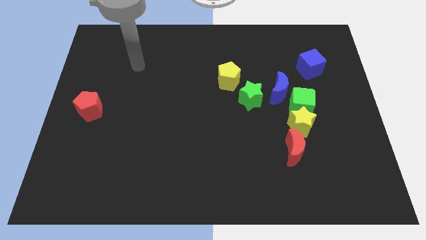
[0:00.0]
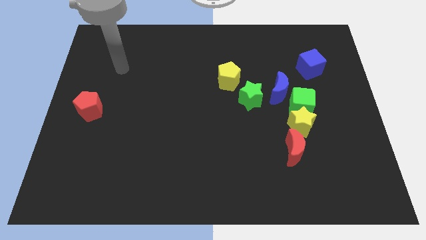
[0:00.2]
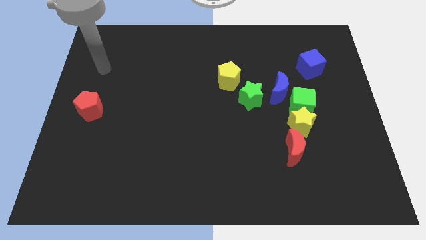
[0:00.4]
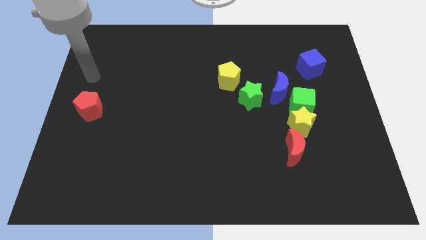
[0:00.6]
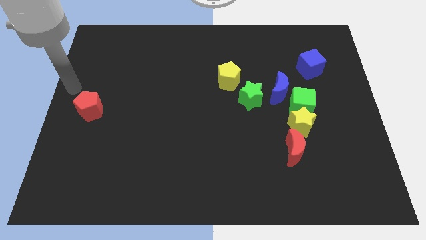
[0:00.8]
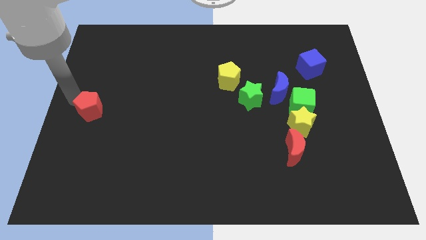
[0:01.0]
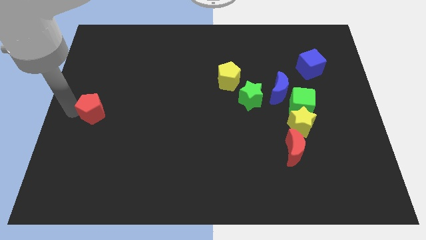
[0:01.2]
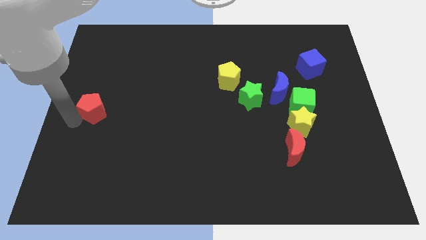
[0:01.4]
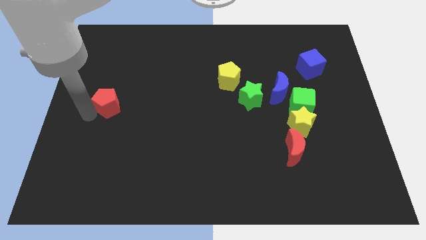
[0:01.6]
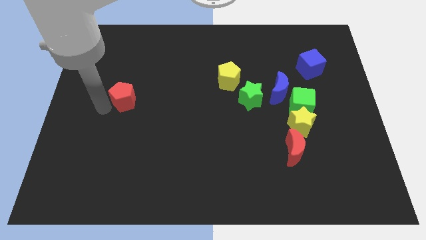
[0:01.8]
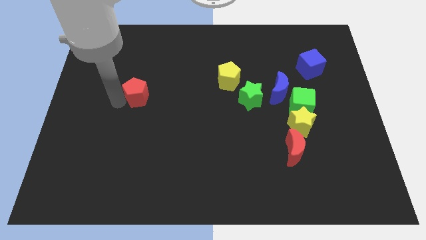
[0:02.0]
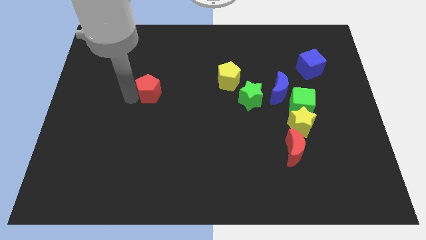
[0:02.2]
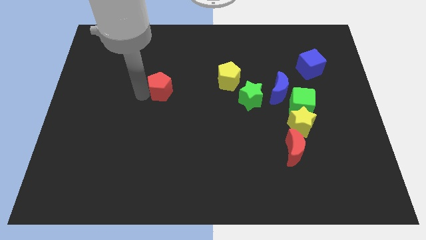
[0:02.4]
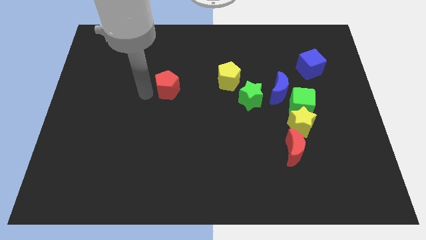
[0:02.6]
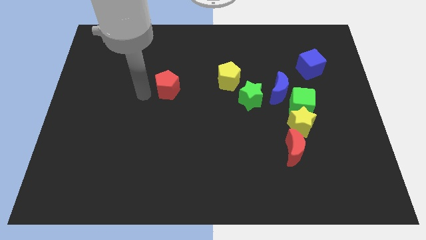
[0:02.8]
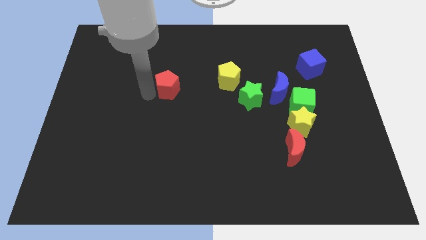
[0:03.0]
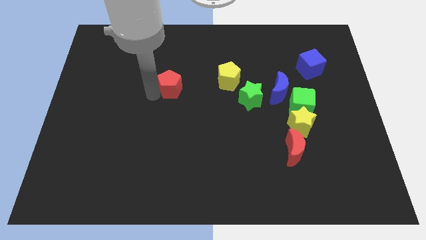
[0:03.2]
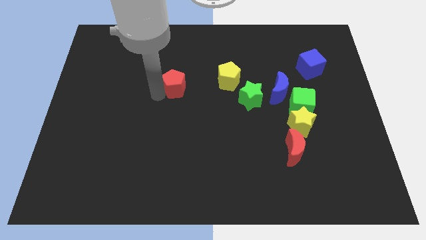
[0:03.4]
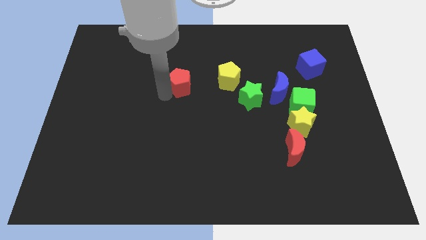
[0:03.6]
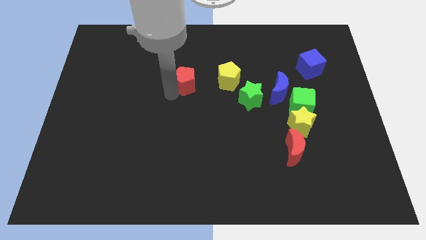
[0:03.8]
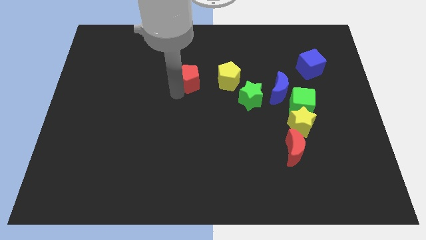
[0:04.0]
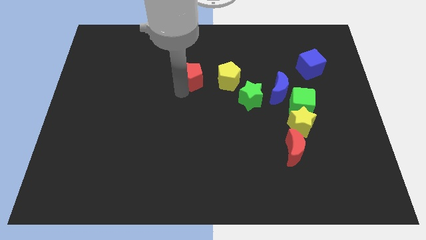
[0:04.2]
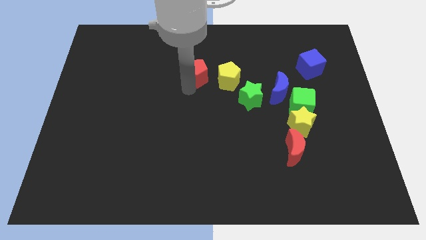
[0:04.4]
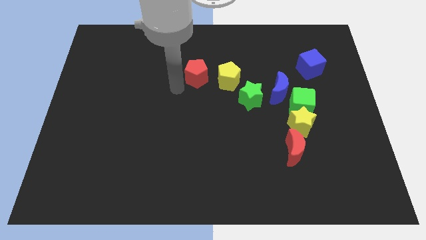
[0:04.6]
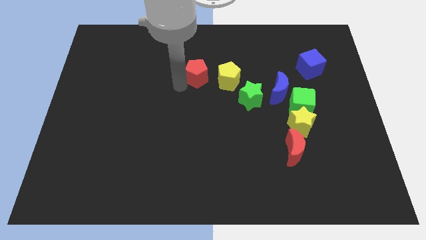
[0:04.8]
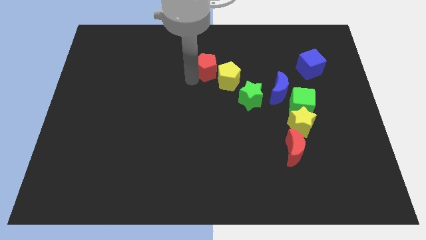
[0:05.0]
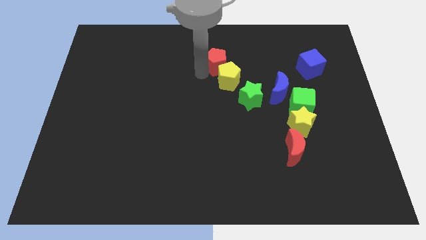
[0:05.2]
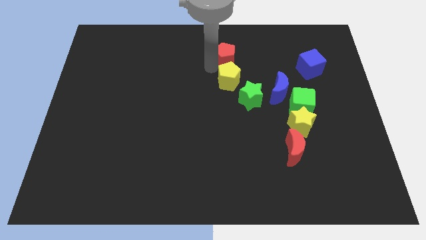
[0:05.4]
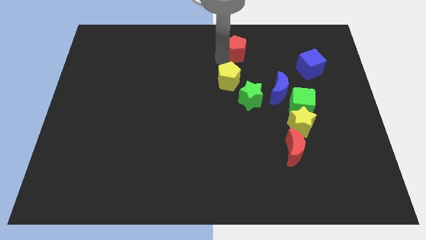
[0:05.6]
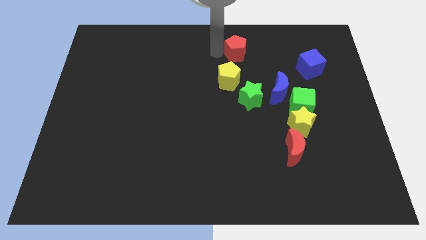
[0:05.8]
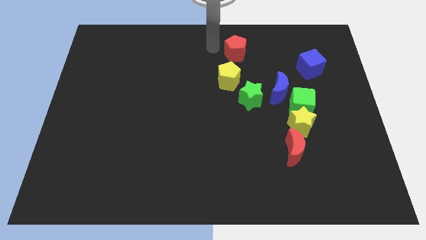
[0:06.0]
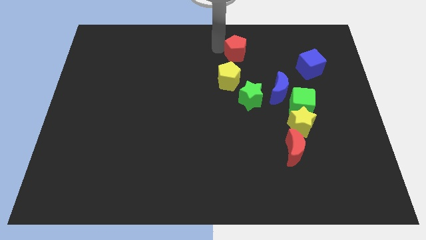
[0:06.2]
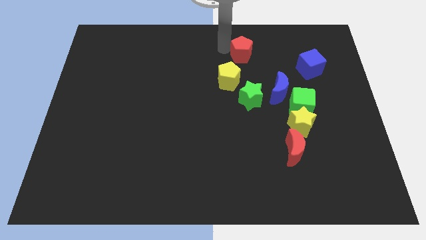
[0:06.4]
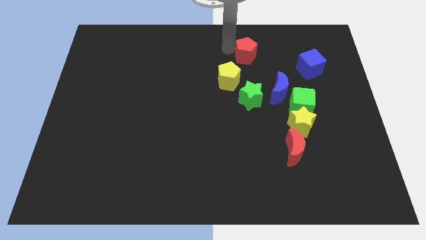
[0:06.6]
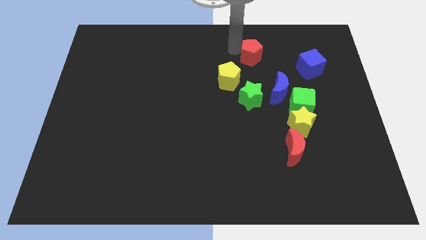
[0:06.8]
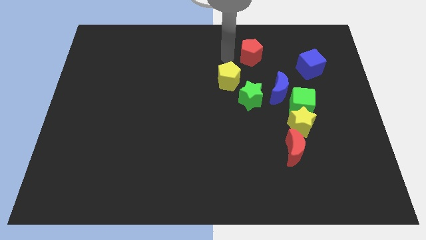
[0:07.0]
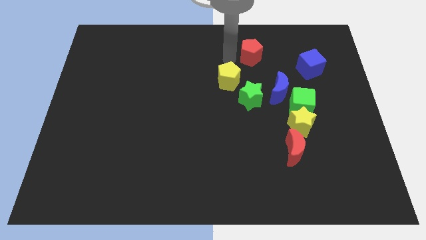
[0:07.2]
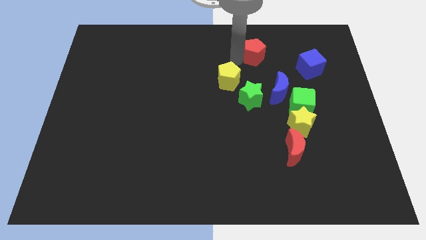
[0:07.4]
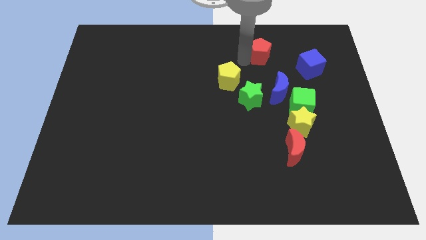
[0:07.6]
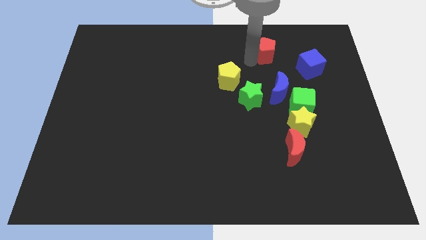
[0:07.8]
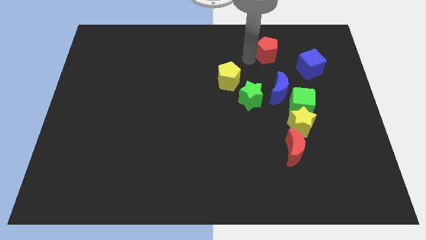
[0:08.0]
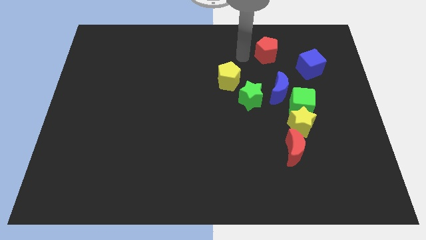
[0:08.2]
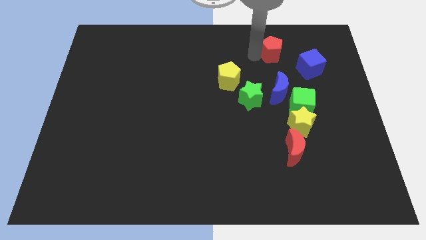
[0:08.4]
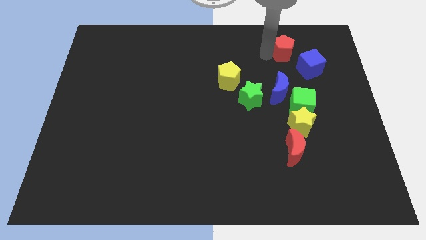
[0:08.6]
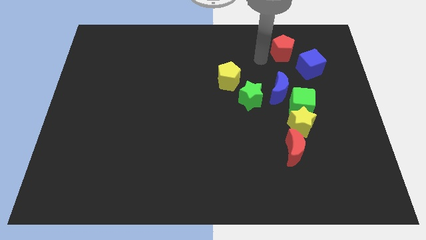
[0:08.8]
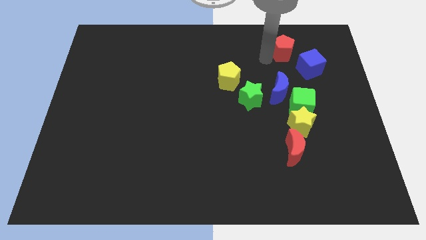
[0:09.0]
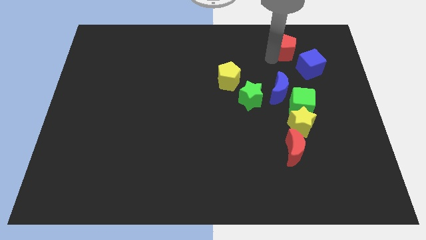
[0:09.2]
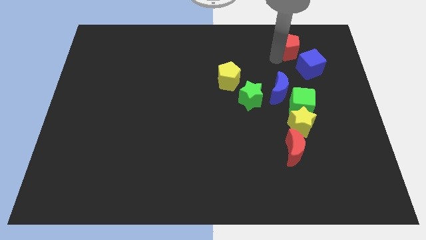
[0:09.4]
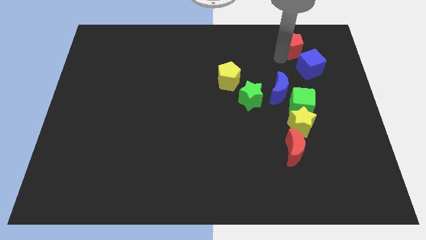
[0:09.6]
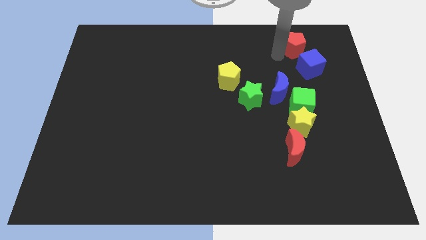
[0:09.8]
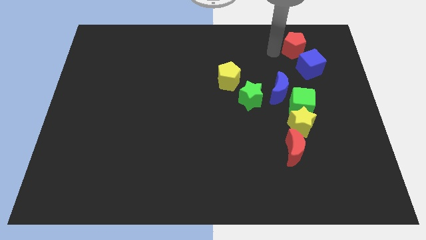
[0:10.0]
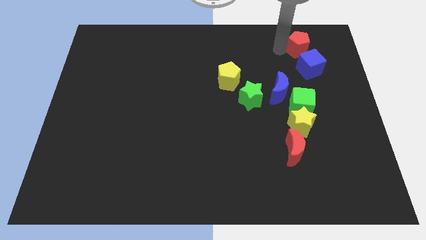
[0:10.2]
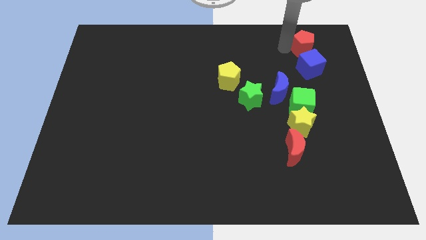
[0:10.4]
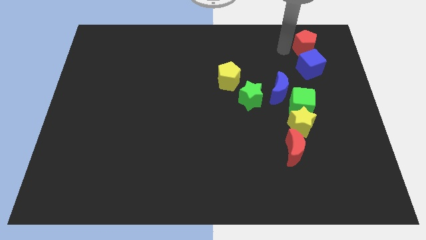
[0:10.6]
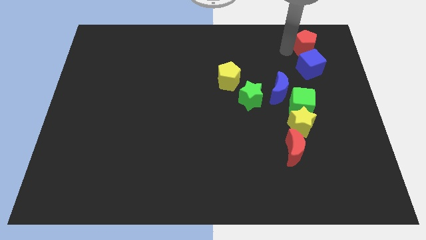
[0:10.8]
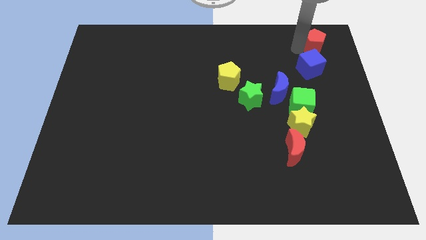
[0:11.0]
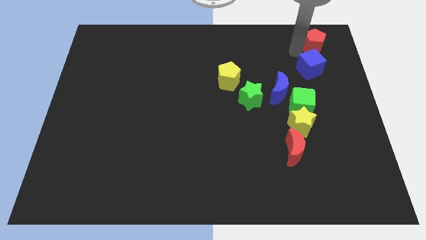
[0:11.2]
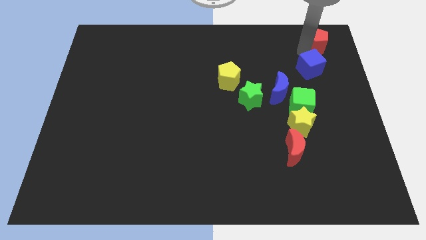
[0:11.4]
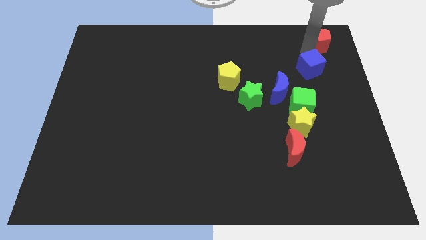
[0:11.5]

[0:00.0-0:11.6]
put the red pentagon to the upper right corner

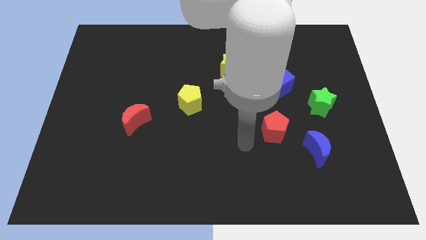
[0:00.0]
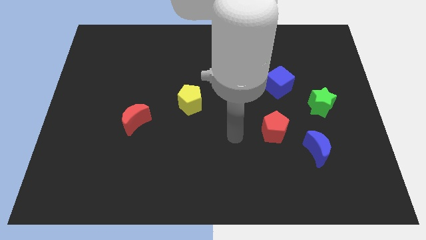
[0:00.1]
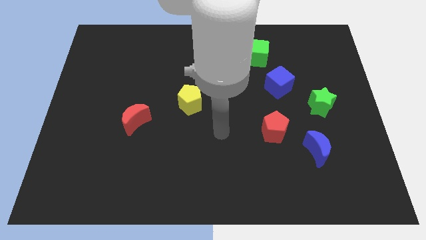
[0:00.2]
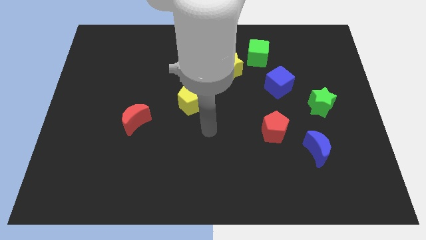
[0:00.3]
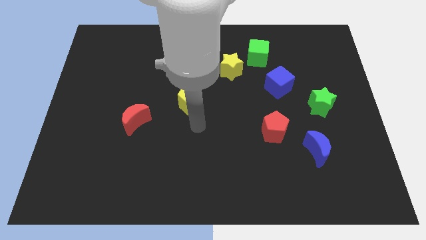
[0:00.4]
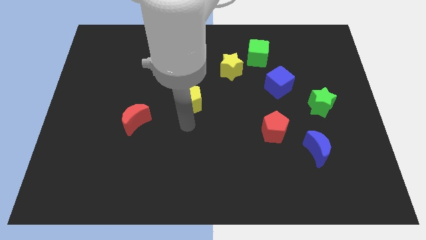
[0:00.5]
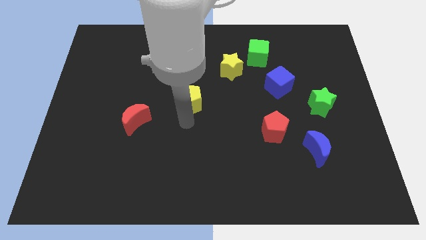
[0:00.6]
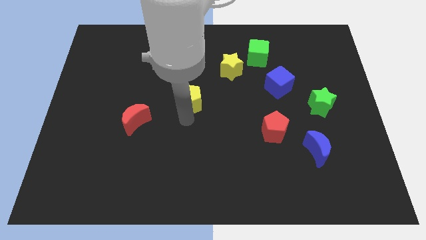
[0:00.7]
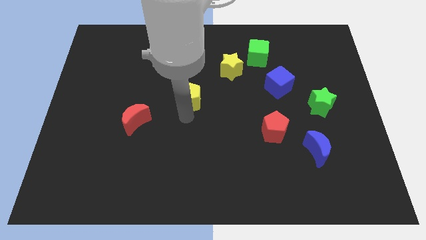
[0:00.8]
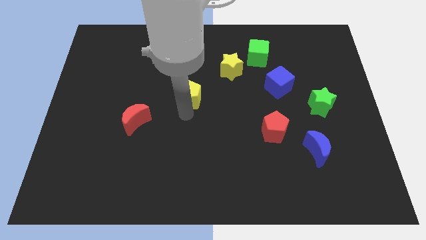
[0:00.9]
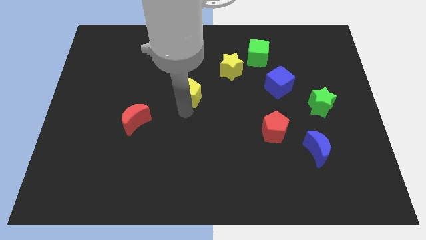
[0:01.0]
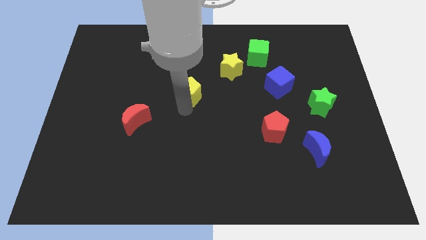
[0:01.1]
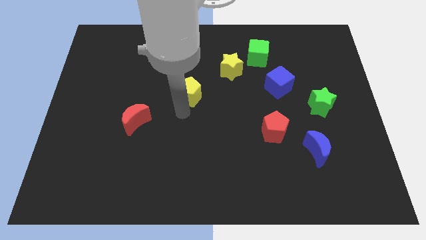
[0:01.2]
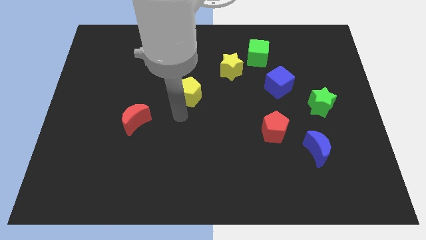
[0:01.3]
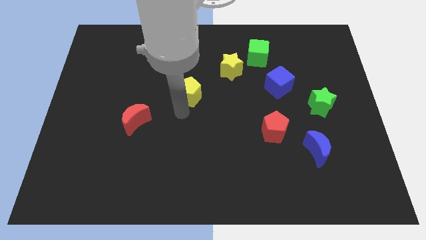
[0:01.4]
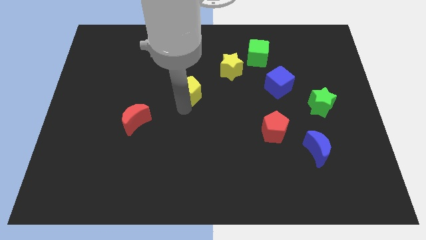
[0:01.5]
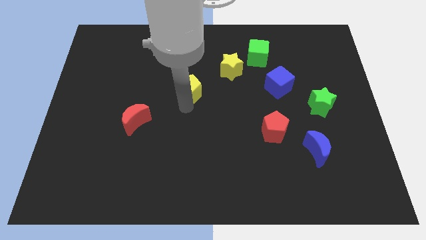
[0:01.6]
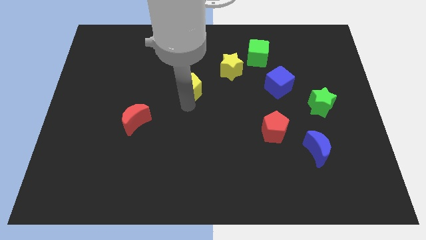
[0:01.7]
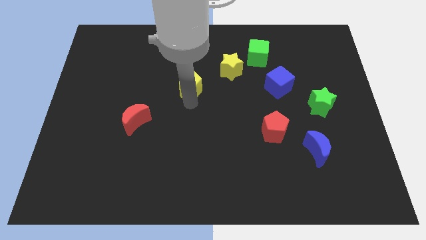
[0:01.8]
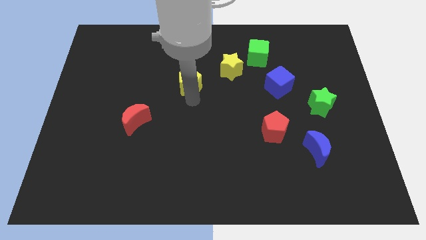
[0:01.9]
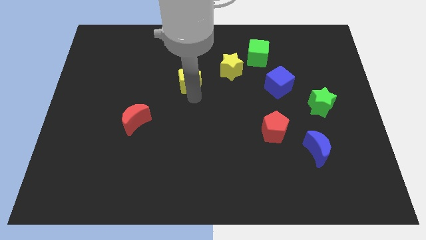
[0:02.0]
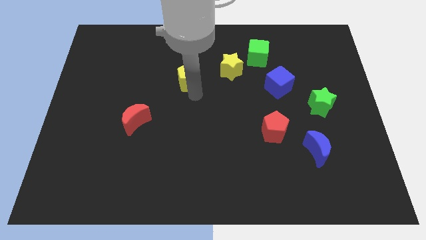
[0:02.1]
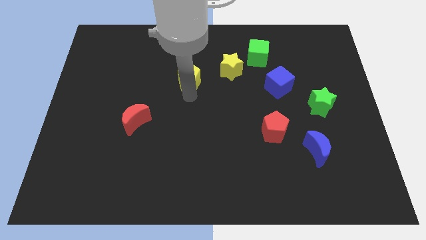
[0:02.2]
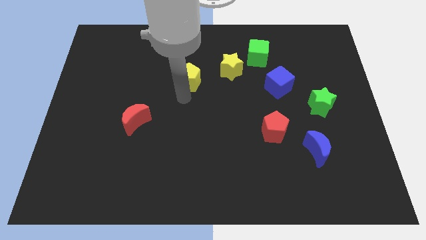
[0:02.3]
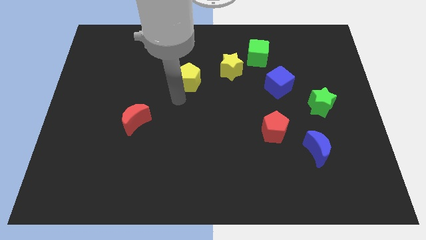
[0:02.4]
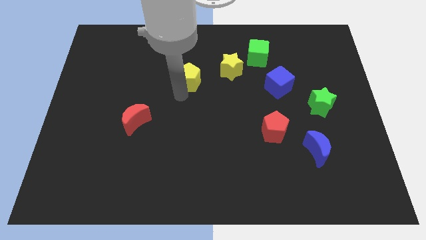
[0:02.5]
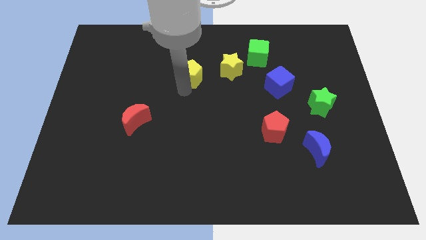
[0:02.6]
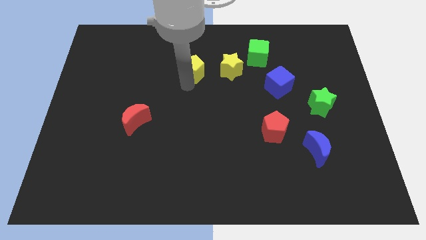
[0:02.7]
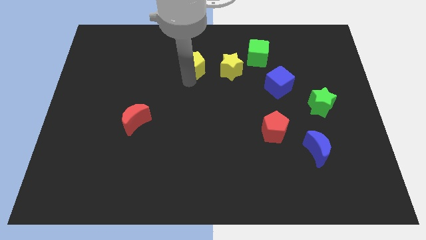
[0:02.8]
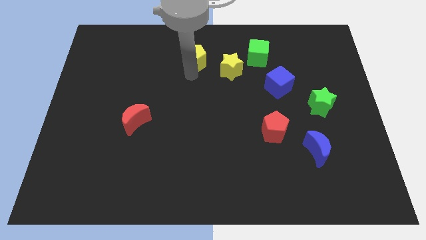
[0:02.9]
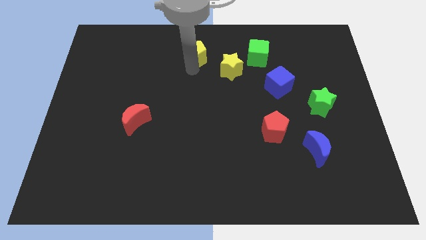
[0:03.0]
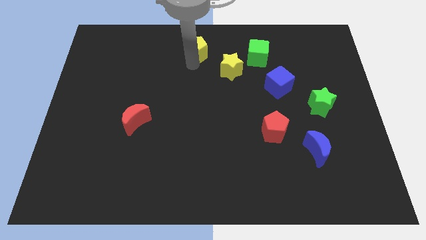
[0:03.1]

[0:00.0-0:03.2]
slide the yellow pentagon to the top
